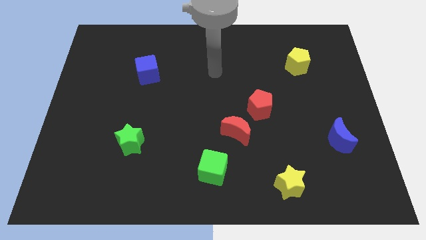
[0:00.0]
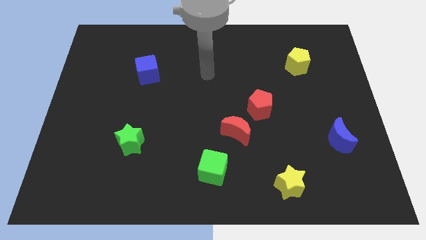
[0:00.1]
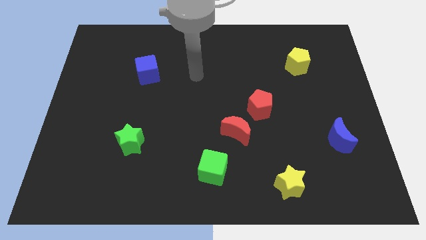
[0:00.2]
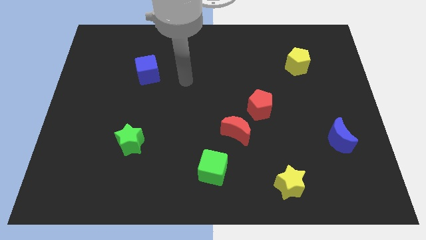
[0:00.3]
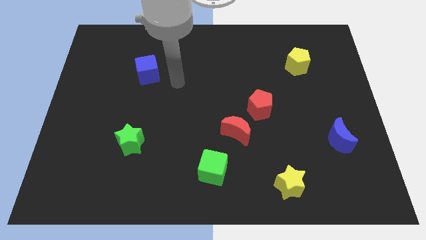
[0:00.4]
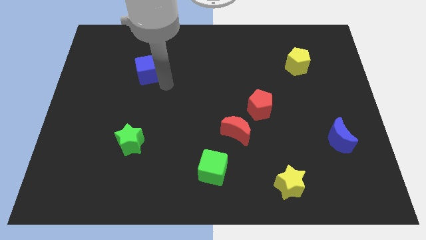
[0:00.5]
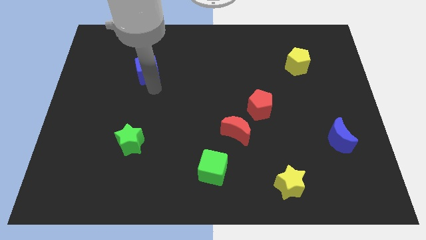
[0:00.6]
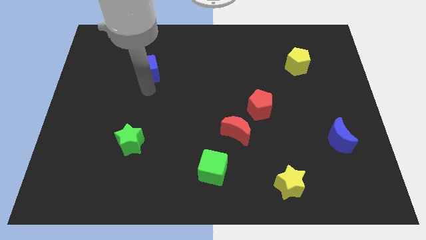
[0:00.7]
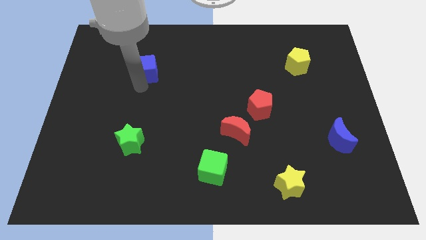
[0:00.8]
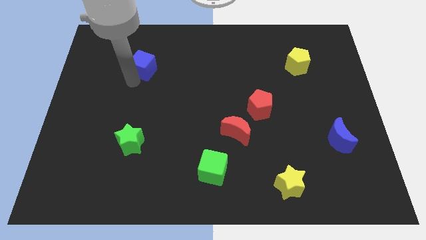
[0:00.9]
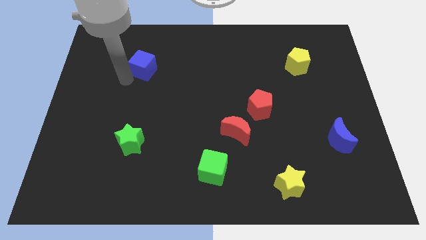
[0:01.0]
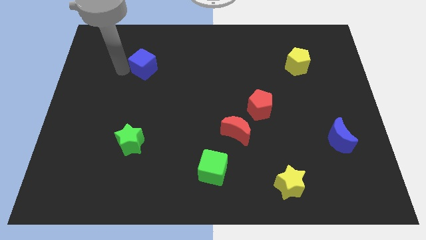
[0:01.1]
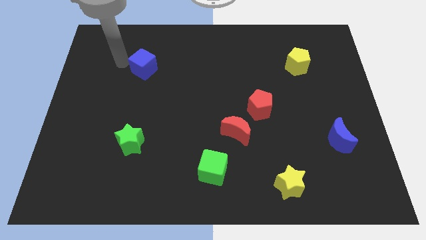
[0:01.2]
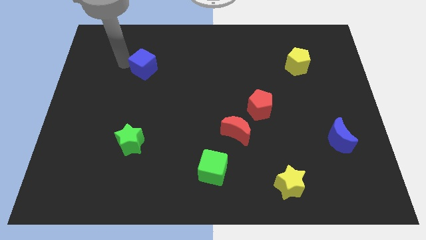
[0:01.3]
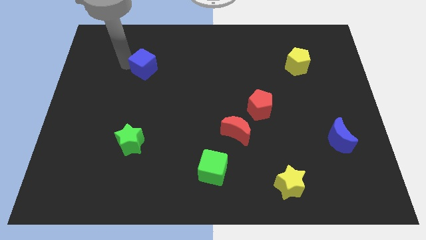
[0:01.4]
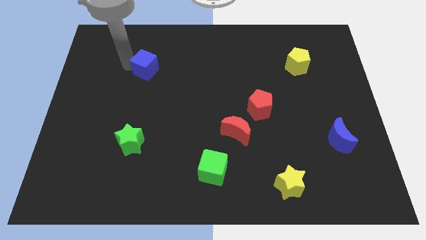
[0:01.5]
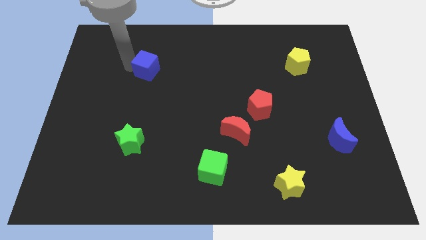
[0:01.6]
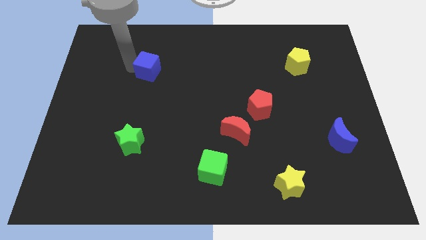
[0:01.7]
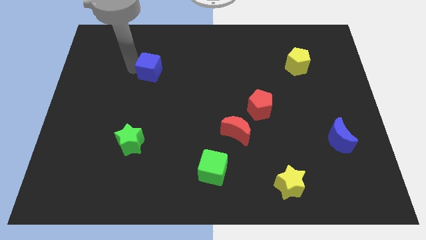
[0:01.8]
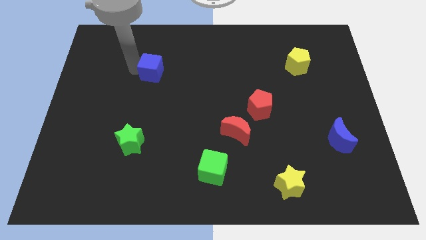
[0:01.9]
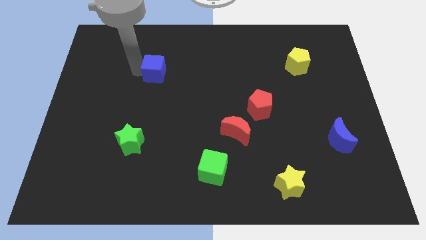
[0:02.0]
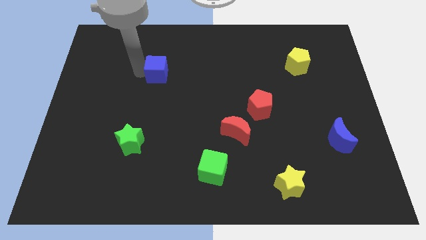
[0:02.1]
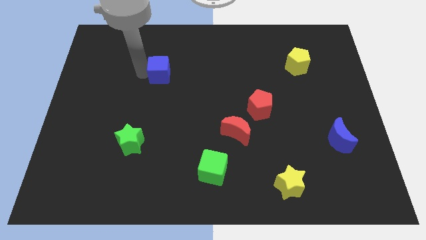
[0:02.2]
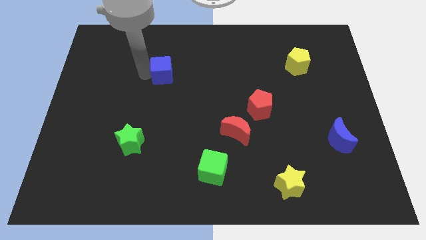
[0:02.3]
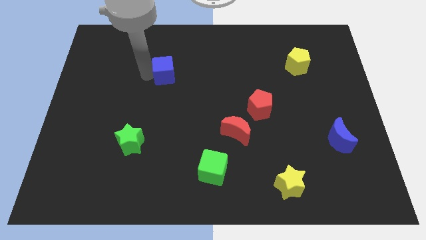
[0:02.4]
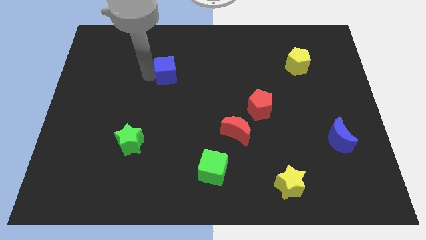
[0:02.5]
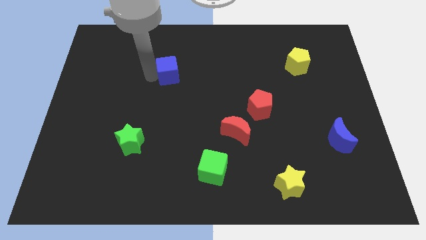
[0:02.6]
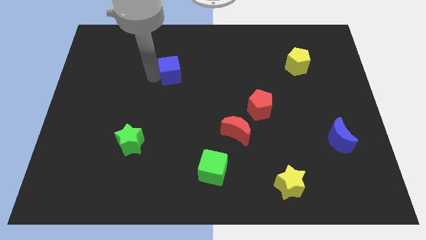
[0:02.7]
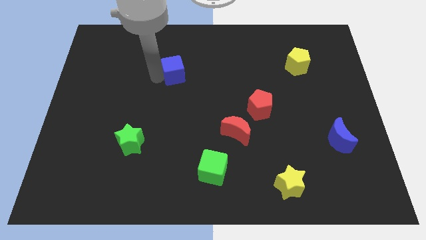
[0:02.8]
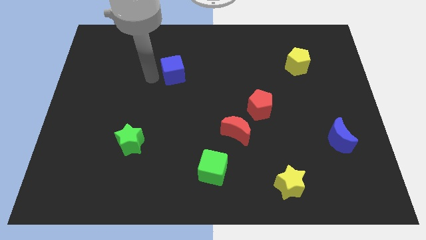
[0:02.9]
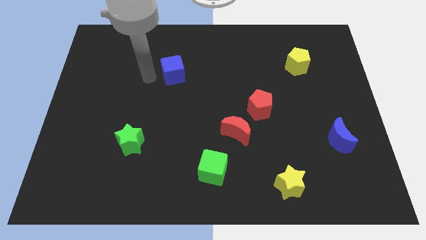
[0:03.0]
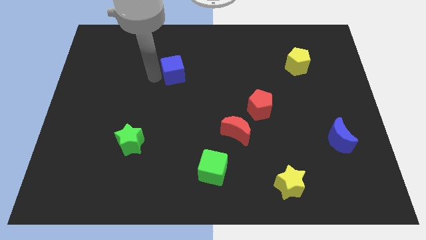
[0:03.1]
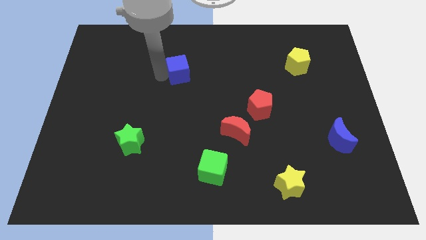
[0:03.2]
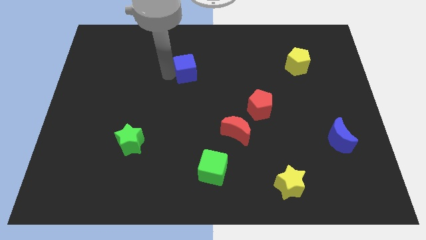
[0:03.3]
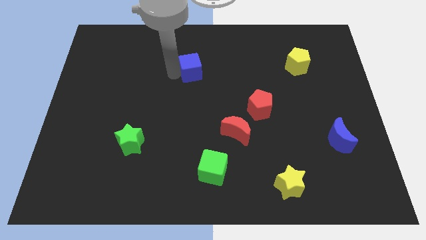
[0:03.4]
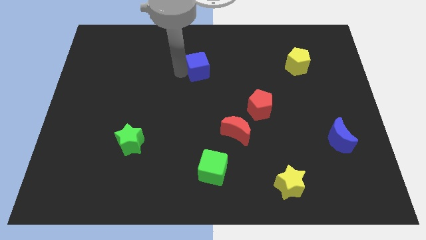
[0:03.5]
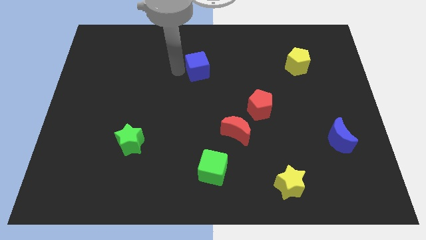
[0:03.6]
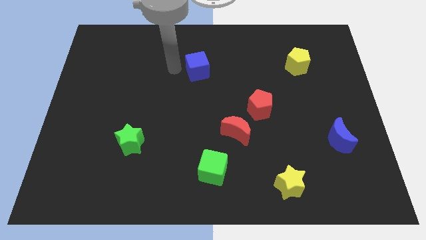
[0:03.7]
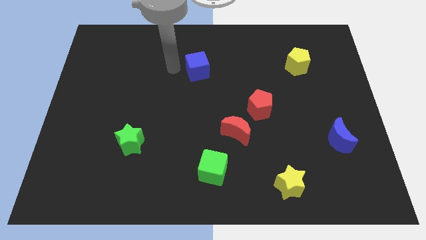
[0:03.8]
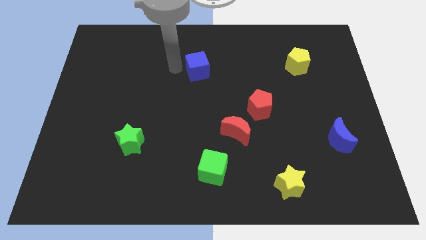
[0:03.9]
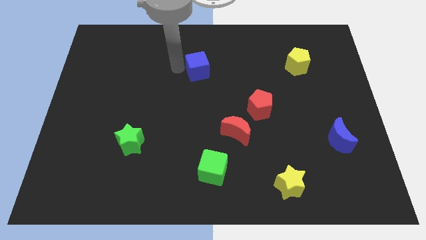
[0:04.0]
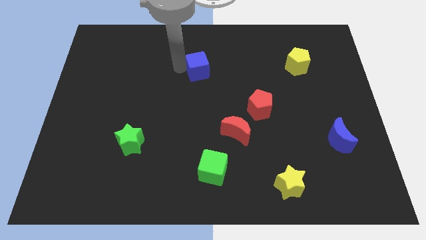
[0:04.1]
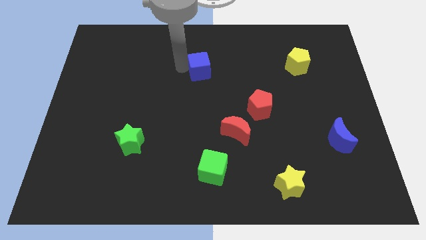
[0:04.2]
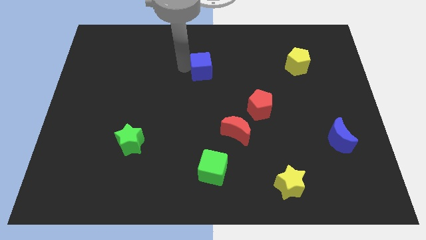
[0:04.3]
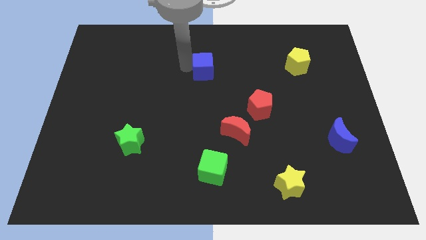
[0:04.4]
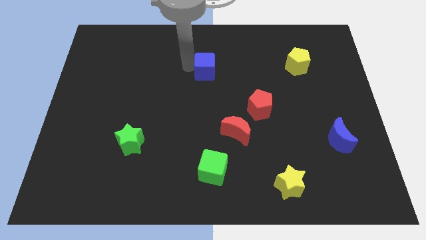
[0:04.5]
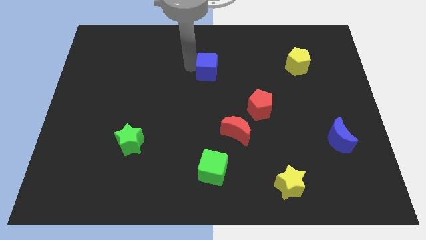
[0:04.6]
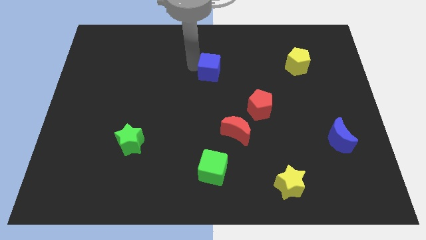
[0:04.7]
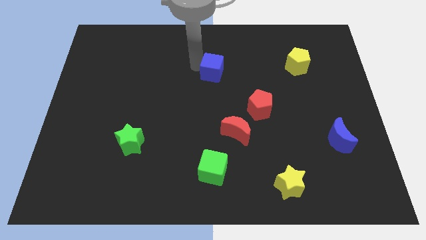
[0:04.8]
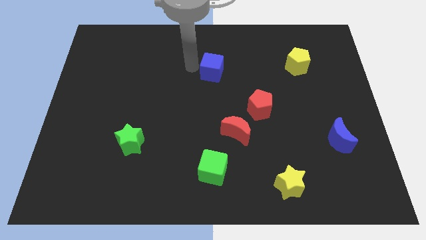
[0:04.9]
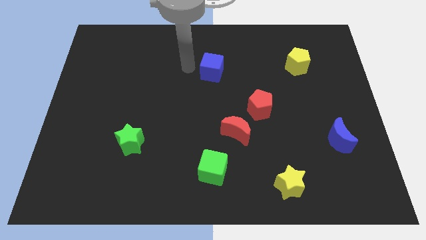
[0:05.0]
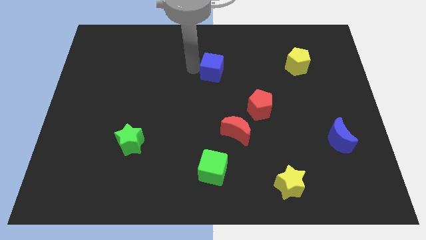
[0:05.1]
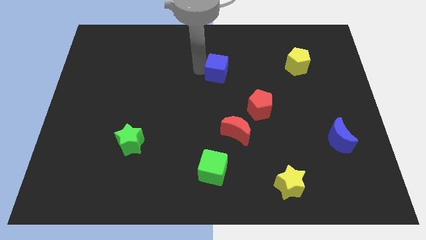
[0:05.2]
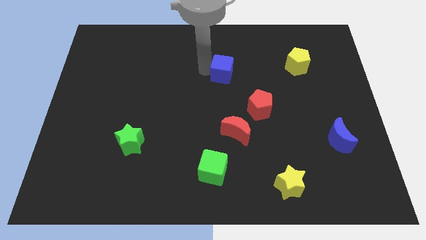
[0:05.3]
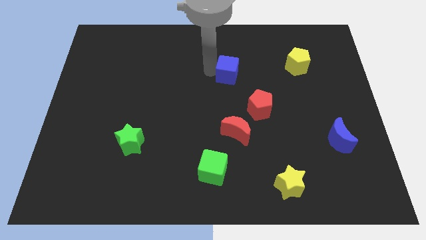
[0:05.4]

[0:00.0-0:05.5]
move the blue cube right

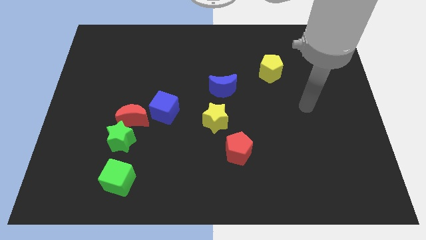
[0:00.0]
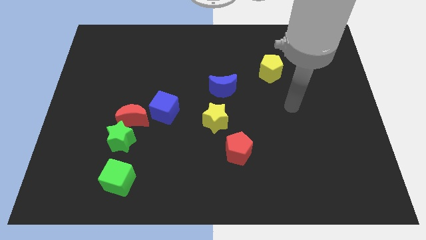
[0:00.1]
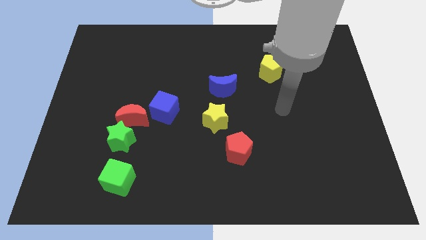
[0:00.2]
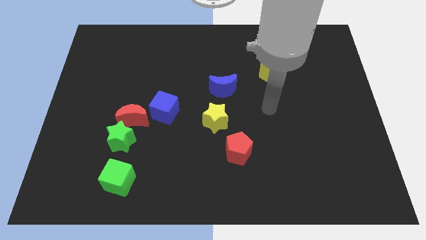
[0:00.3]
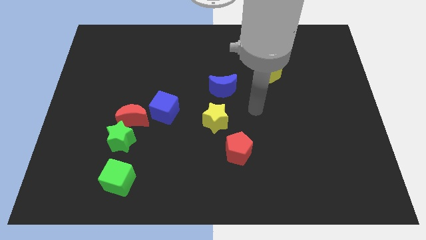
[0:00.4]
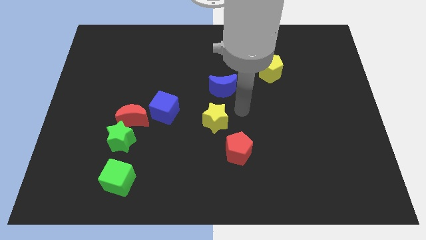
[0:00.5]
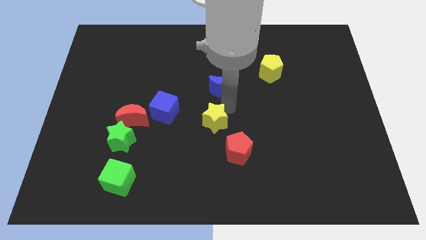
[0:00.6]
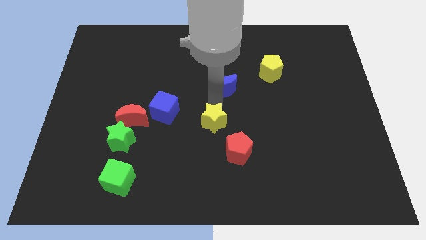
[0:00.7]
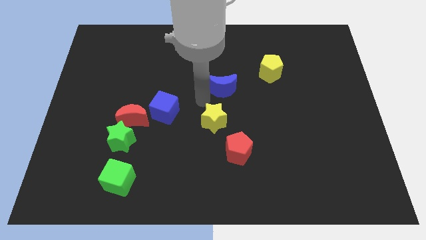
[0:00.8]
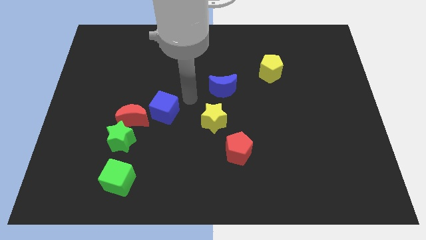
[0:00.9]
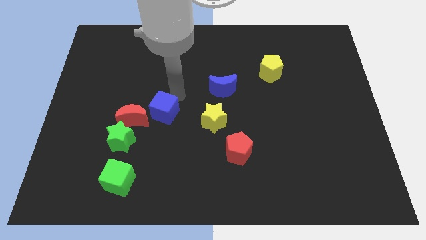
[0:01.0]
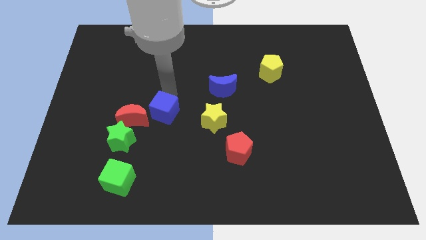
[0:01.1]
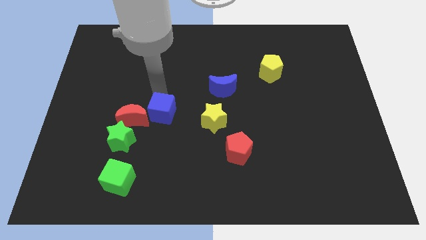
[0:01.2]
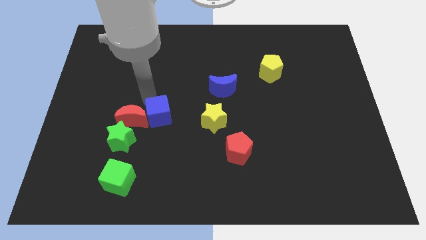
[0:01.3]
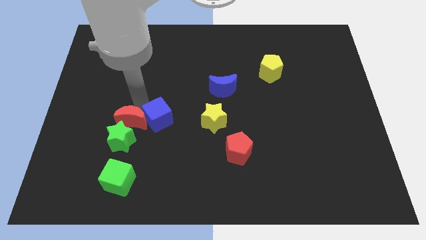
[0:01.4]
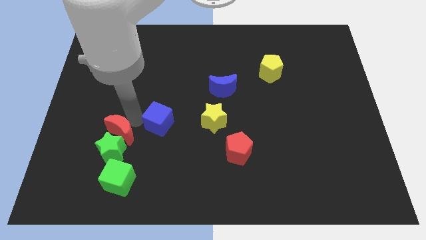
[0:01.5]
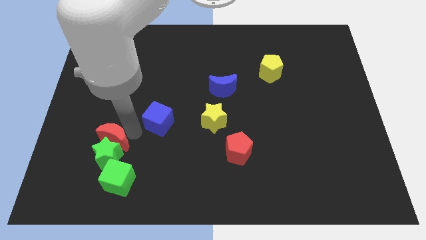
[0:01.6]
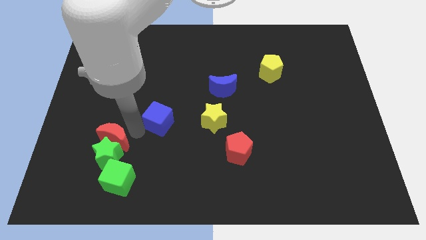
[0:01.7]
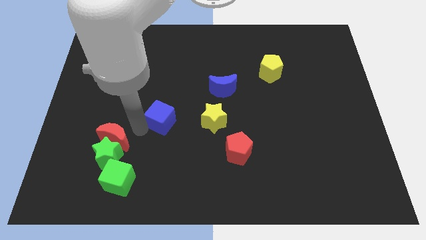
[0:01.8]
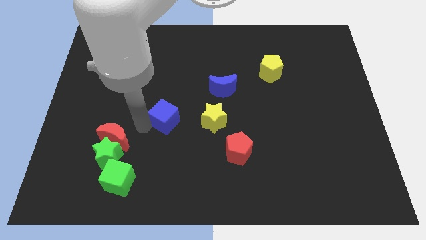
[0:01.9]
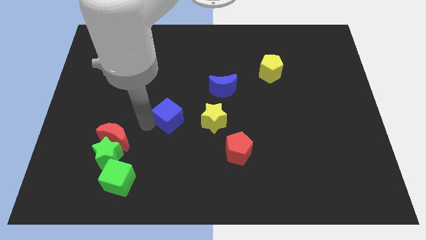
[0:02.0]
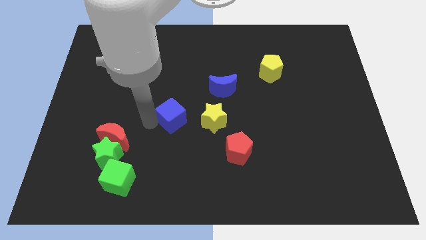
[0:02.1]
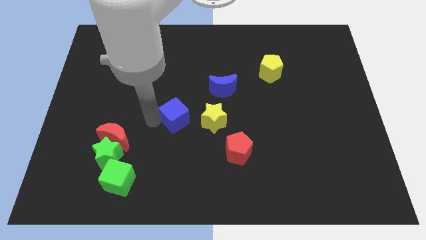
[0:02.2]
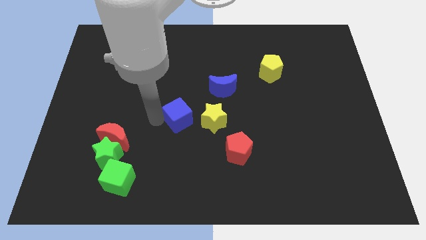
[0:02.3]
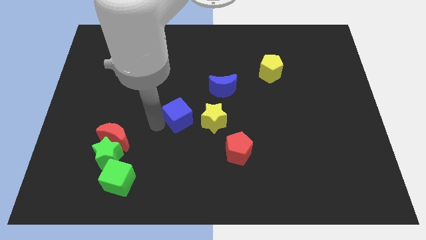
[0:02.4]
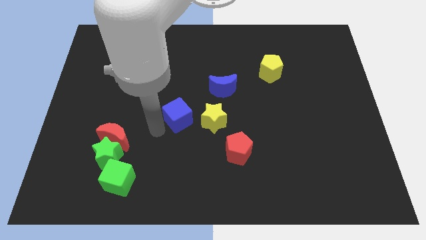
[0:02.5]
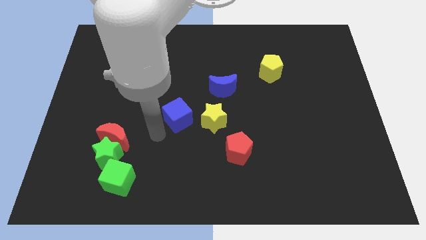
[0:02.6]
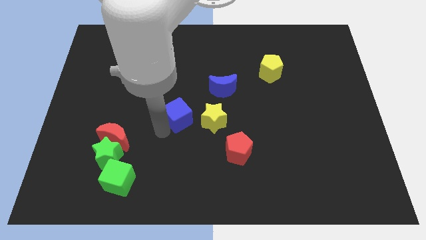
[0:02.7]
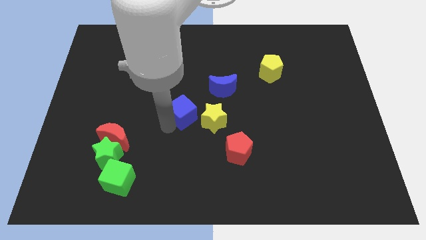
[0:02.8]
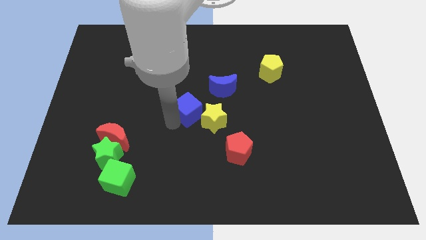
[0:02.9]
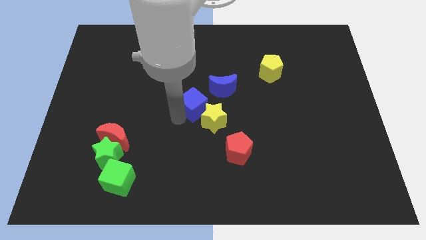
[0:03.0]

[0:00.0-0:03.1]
push the blue cube somewhat to the right
